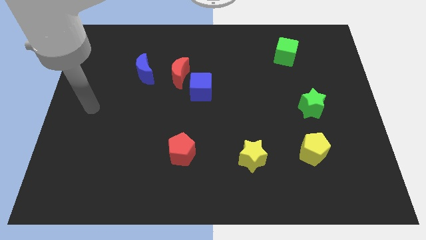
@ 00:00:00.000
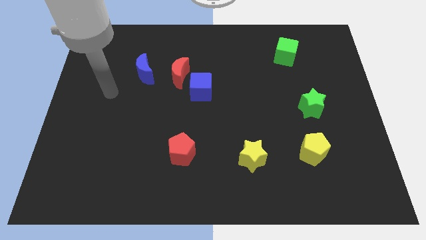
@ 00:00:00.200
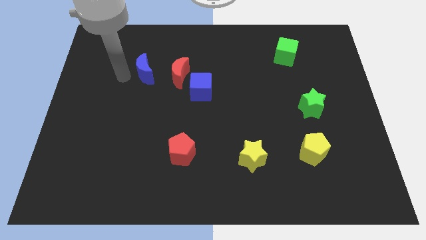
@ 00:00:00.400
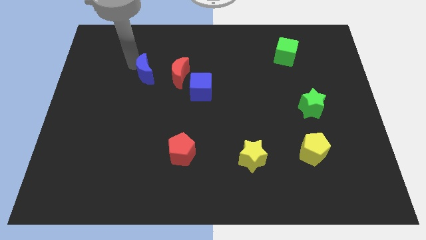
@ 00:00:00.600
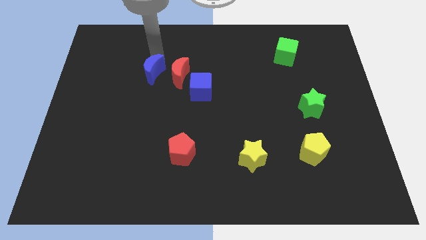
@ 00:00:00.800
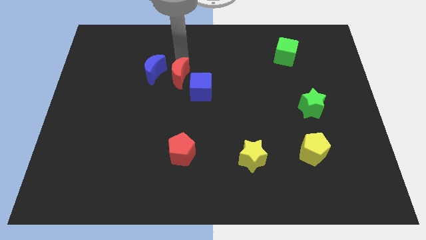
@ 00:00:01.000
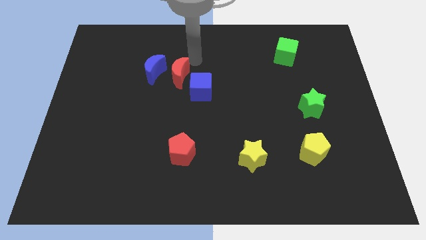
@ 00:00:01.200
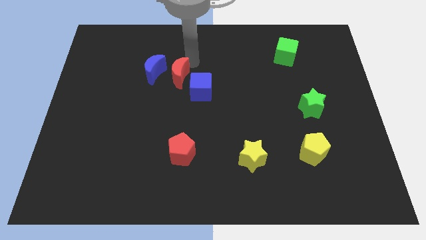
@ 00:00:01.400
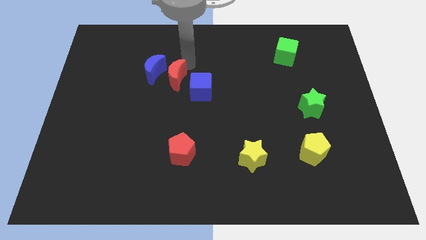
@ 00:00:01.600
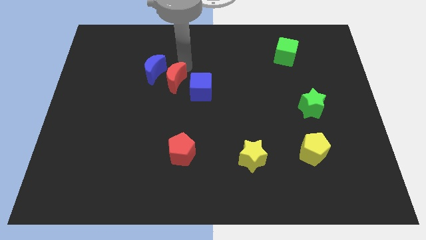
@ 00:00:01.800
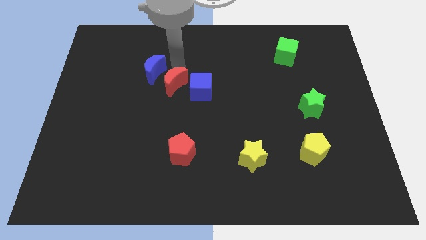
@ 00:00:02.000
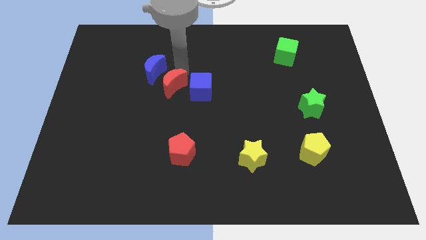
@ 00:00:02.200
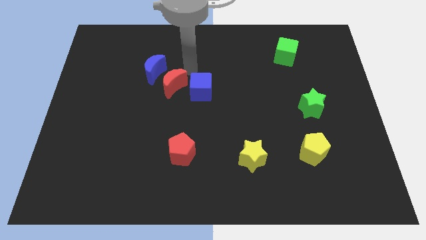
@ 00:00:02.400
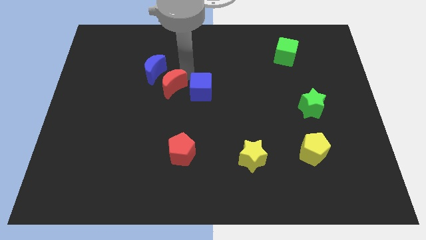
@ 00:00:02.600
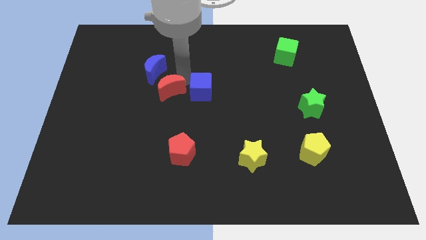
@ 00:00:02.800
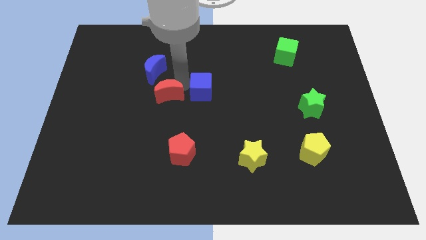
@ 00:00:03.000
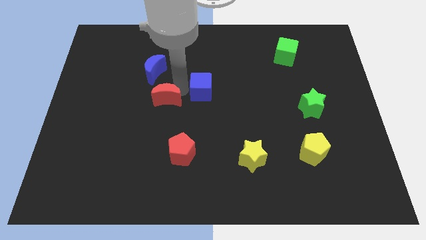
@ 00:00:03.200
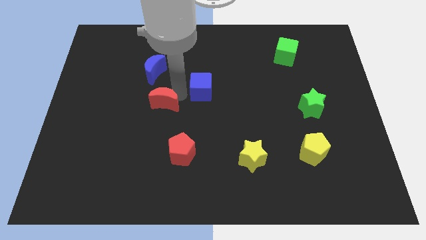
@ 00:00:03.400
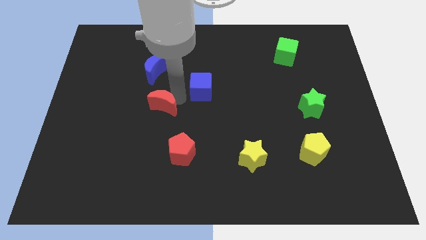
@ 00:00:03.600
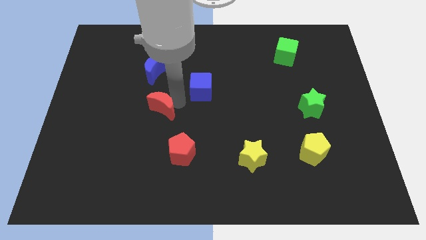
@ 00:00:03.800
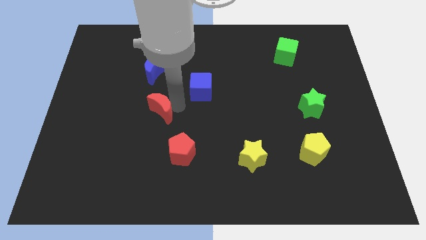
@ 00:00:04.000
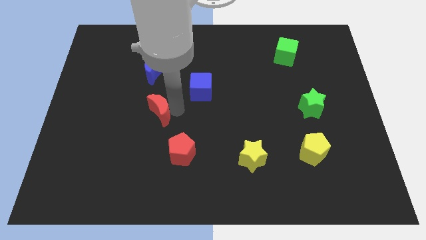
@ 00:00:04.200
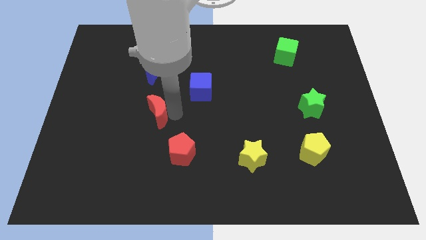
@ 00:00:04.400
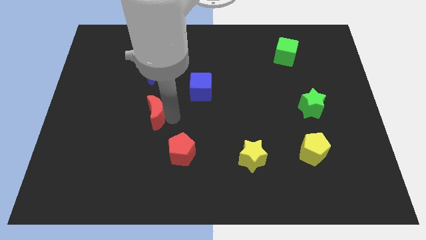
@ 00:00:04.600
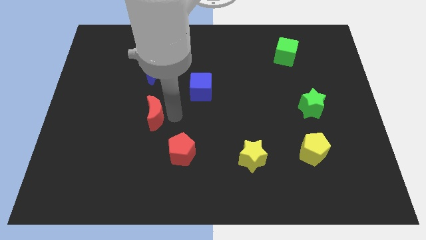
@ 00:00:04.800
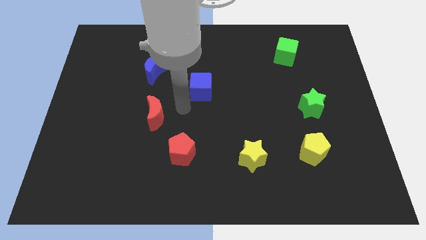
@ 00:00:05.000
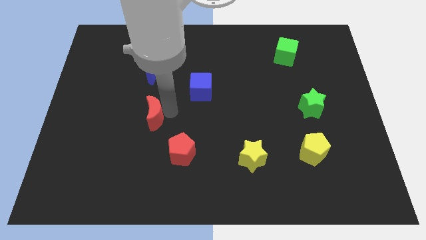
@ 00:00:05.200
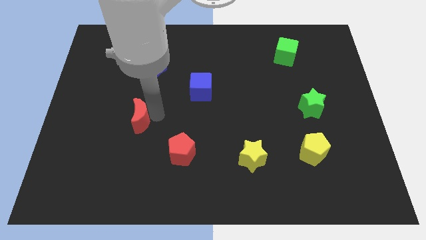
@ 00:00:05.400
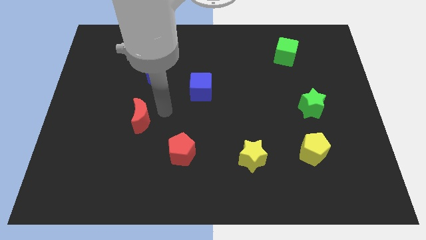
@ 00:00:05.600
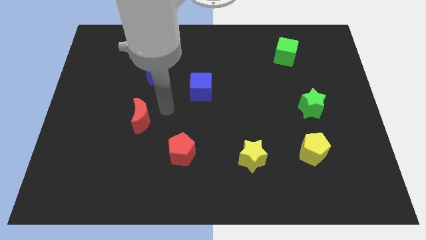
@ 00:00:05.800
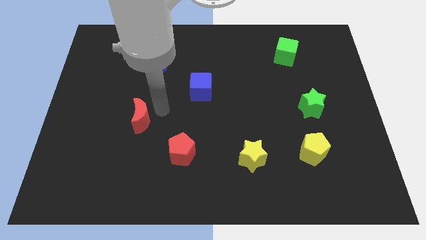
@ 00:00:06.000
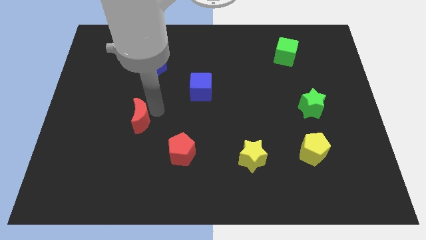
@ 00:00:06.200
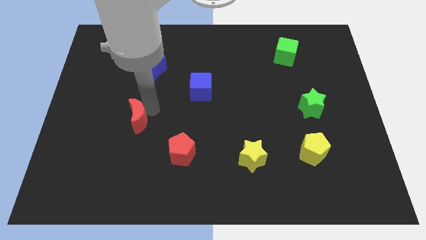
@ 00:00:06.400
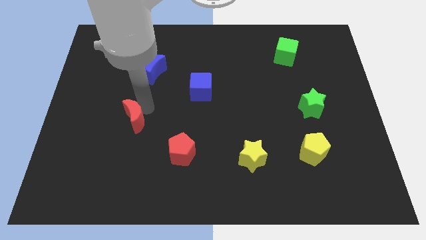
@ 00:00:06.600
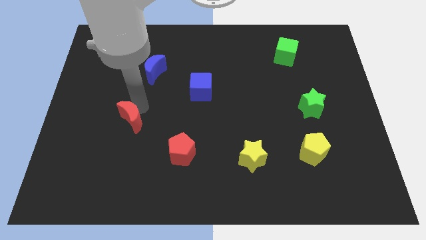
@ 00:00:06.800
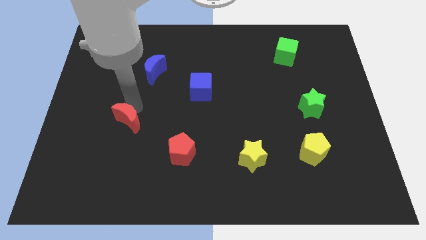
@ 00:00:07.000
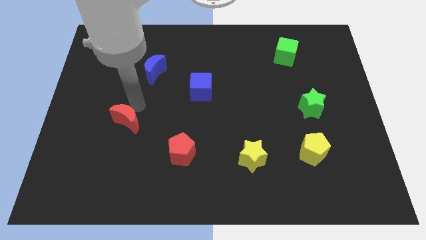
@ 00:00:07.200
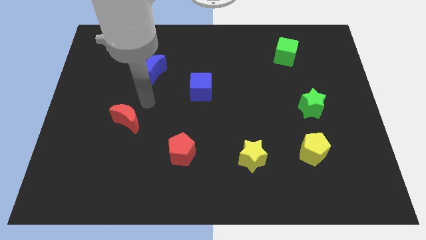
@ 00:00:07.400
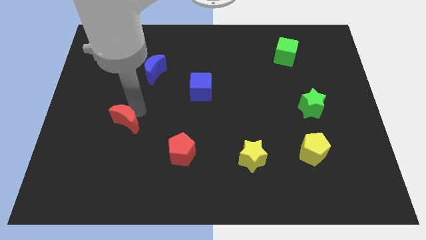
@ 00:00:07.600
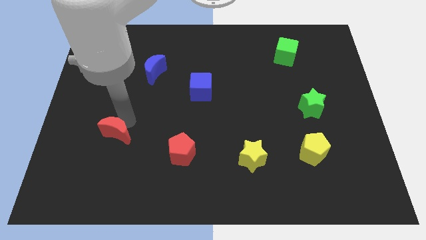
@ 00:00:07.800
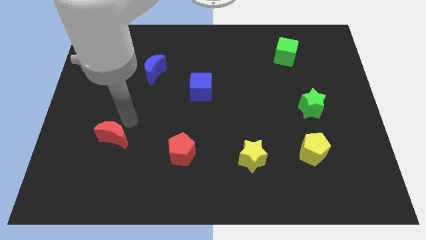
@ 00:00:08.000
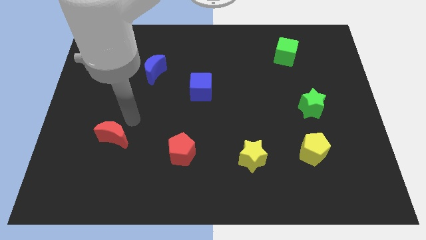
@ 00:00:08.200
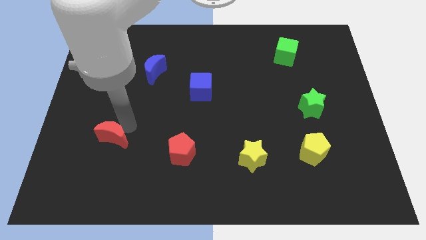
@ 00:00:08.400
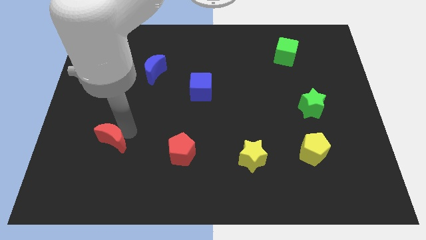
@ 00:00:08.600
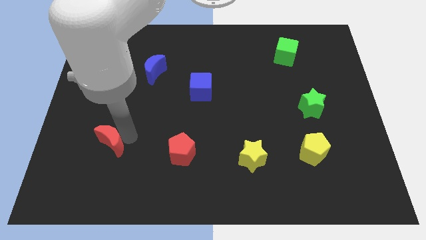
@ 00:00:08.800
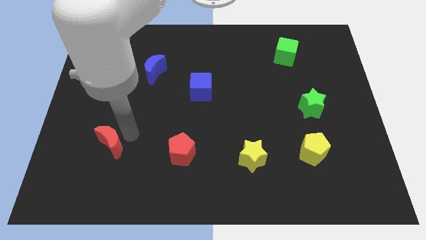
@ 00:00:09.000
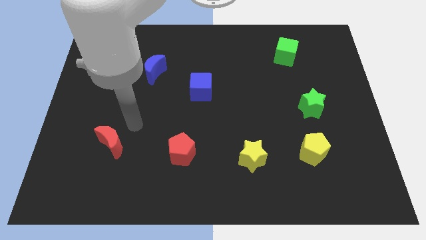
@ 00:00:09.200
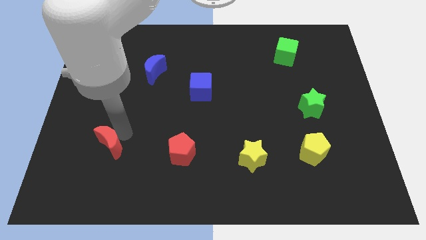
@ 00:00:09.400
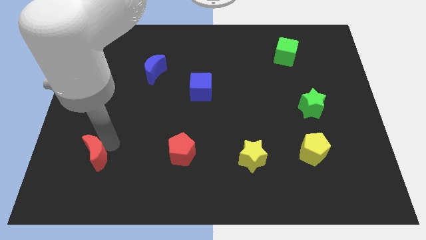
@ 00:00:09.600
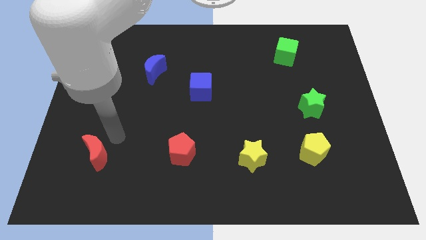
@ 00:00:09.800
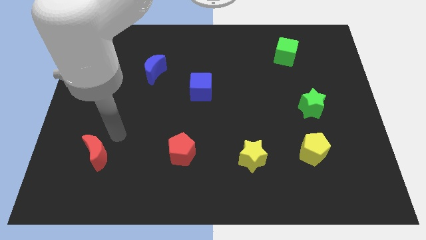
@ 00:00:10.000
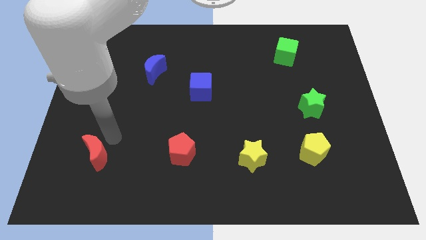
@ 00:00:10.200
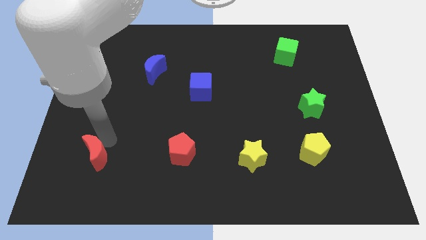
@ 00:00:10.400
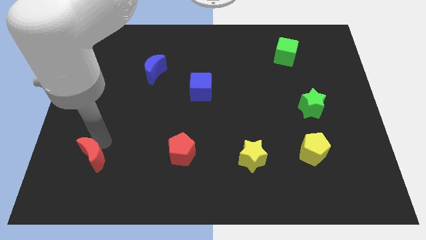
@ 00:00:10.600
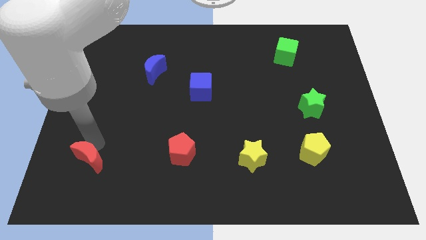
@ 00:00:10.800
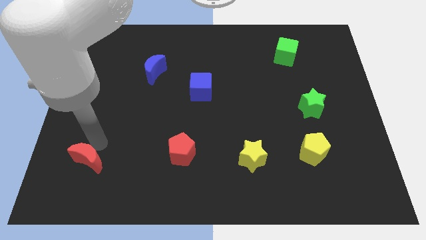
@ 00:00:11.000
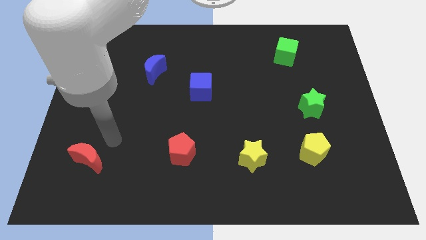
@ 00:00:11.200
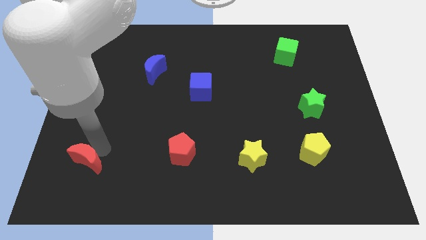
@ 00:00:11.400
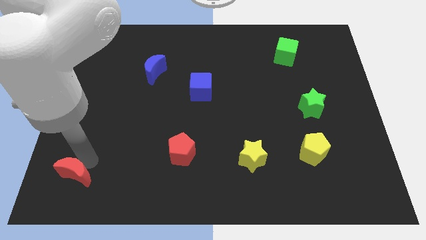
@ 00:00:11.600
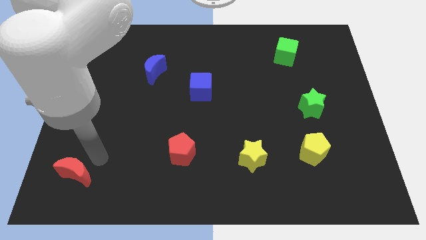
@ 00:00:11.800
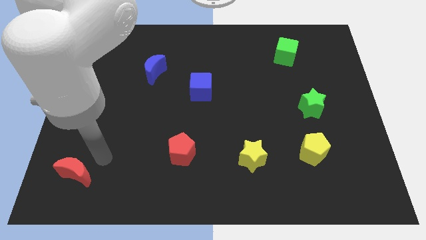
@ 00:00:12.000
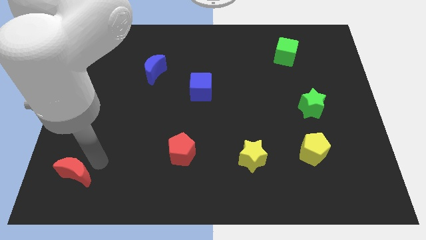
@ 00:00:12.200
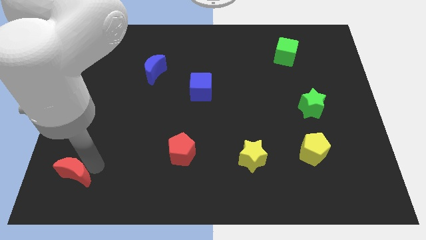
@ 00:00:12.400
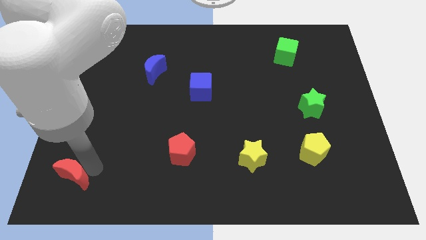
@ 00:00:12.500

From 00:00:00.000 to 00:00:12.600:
move the red moon to the lower left corner
